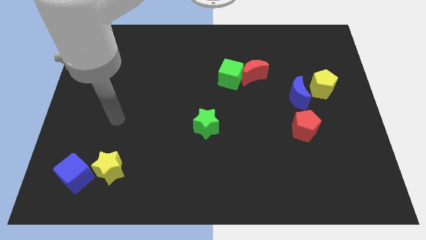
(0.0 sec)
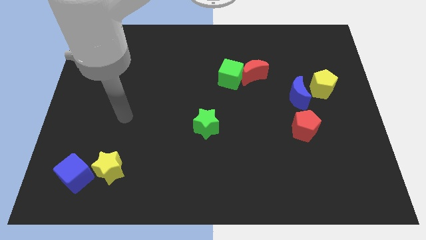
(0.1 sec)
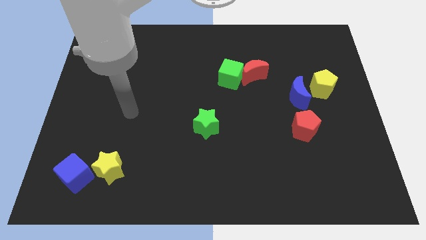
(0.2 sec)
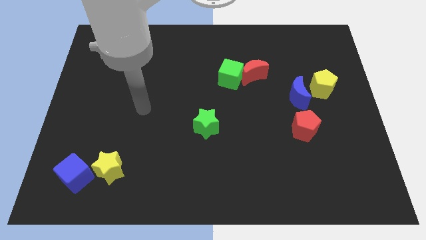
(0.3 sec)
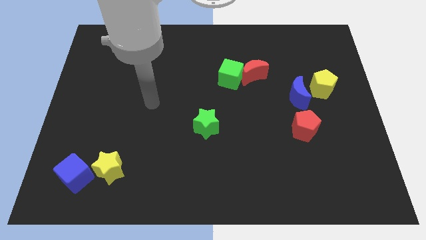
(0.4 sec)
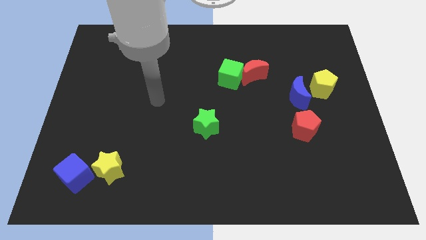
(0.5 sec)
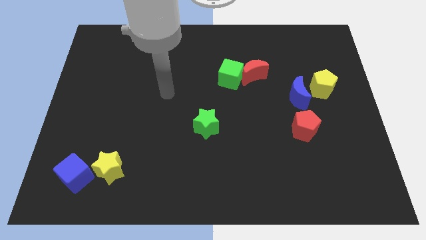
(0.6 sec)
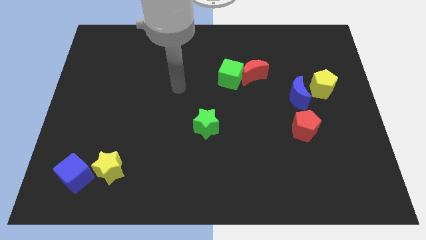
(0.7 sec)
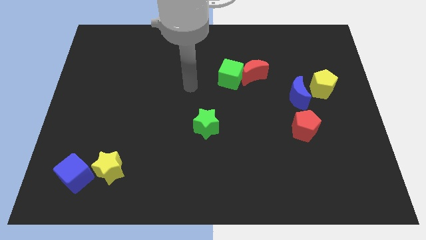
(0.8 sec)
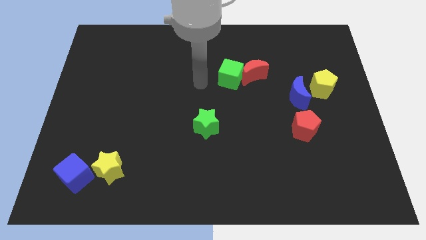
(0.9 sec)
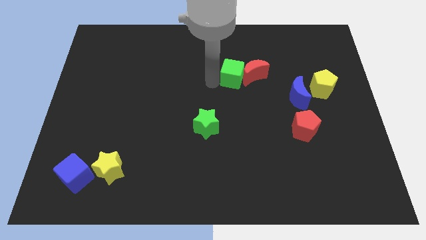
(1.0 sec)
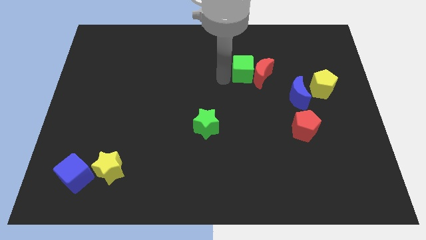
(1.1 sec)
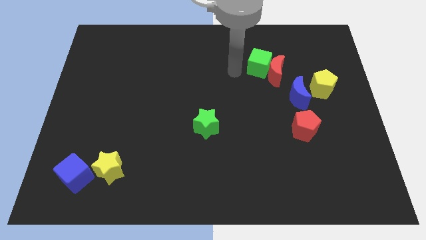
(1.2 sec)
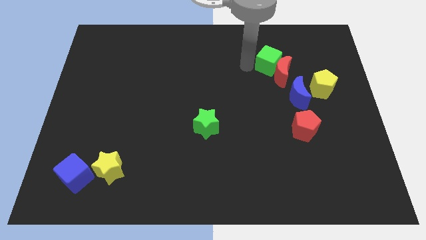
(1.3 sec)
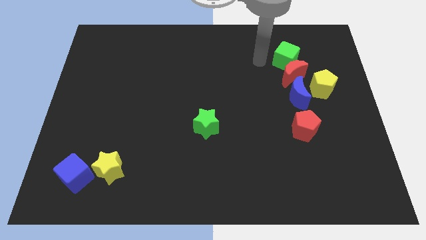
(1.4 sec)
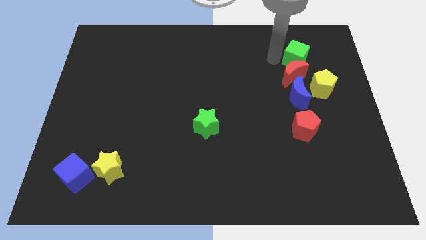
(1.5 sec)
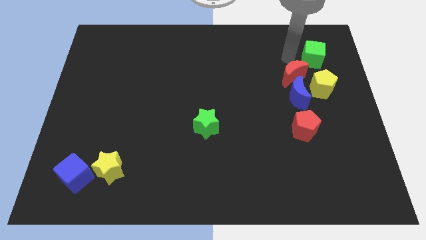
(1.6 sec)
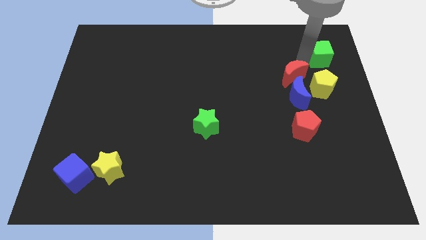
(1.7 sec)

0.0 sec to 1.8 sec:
pull the red moon apart from the green cube

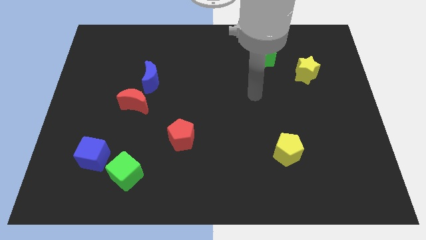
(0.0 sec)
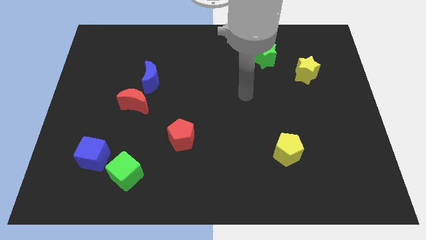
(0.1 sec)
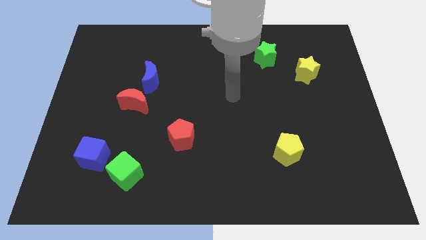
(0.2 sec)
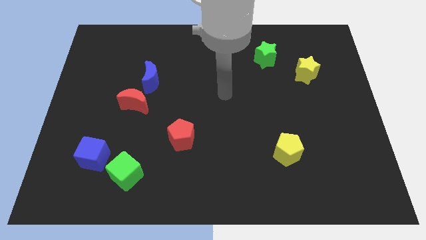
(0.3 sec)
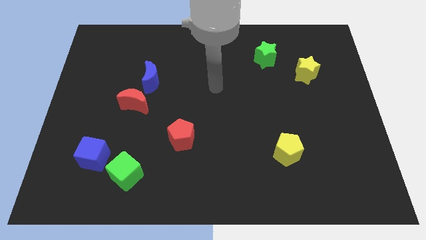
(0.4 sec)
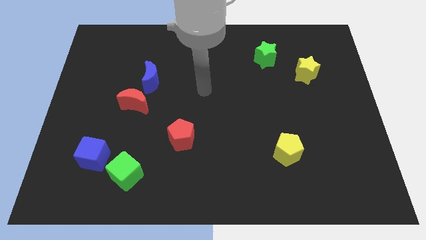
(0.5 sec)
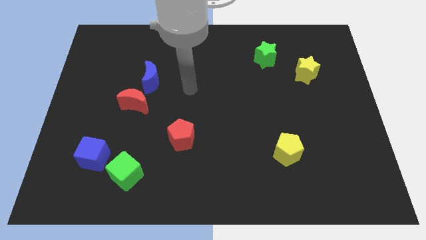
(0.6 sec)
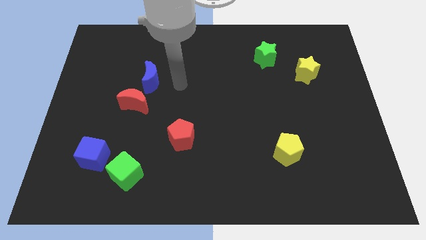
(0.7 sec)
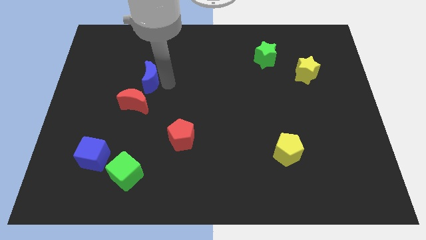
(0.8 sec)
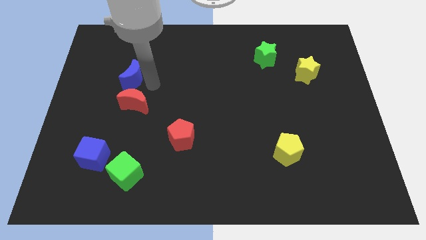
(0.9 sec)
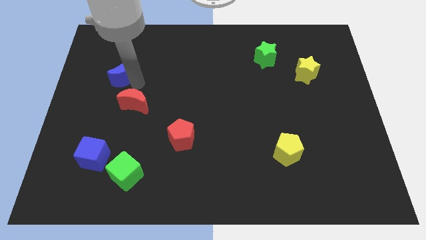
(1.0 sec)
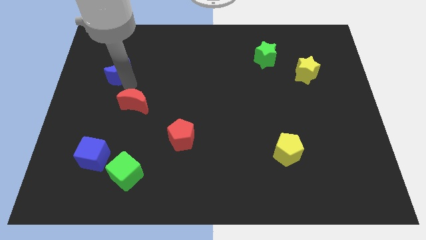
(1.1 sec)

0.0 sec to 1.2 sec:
move the red moon away from the blue moon

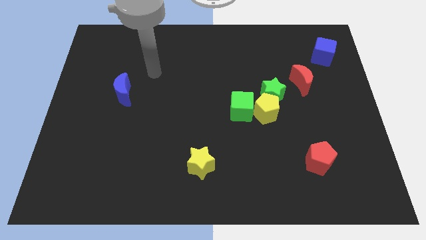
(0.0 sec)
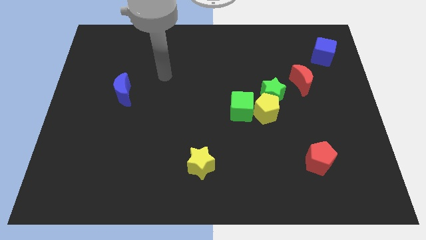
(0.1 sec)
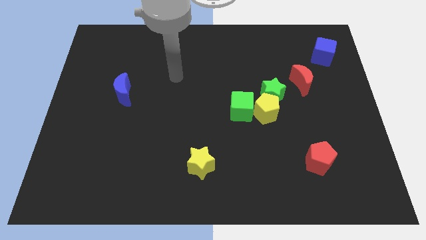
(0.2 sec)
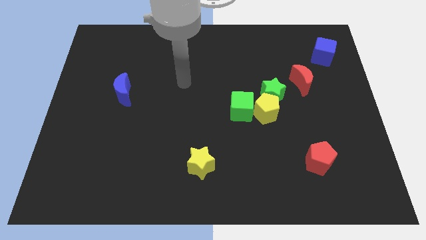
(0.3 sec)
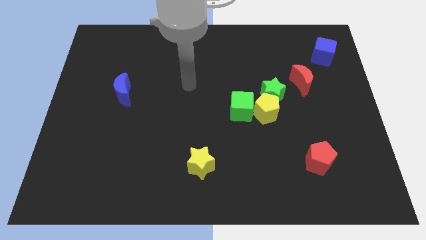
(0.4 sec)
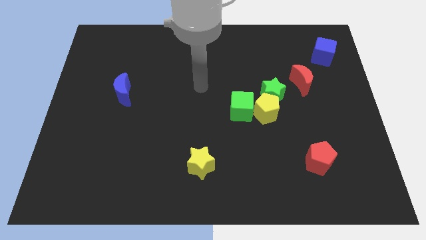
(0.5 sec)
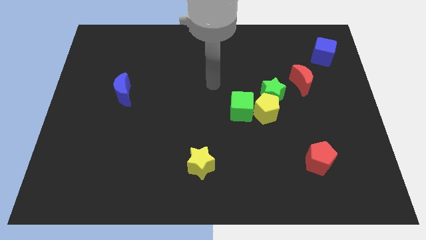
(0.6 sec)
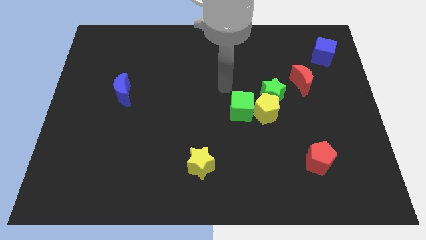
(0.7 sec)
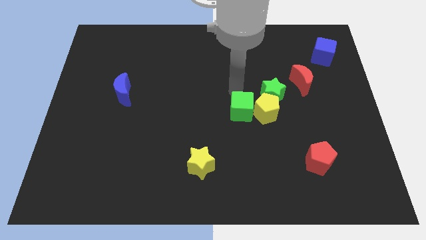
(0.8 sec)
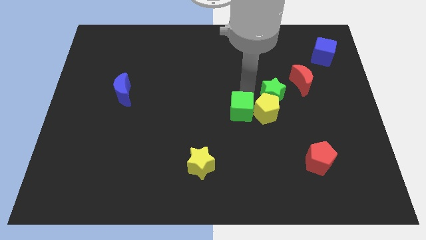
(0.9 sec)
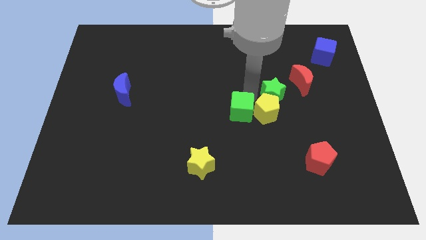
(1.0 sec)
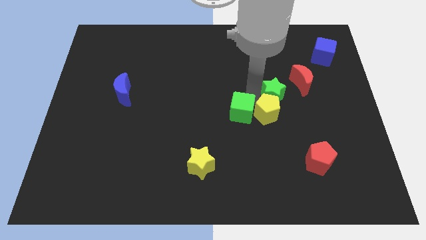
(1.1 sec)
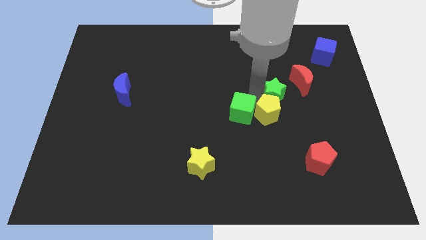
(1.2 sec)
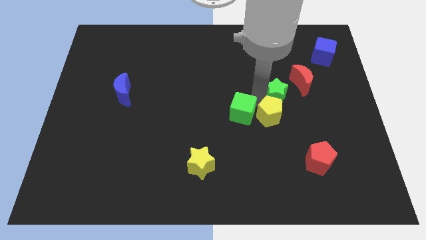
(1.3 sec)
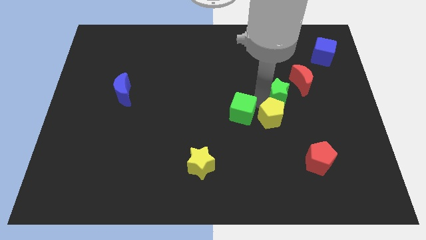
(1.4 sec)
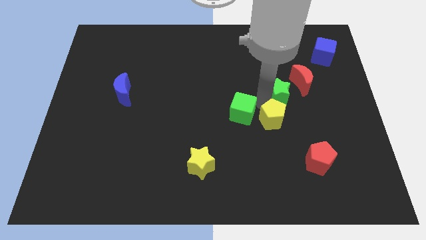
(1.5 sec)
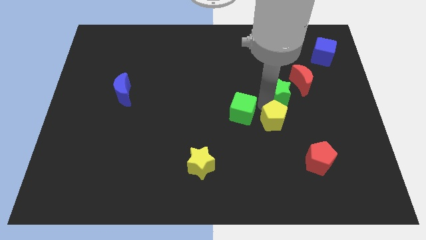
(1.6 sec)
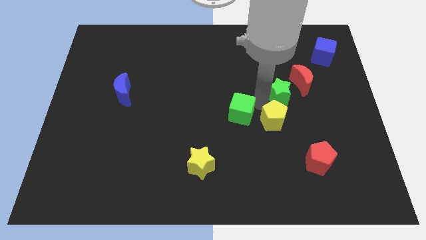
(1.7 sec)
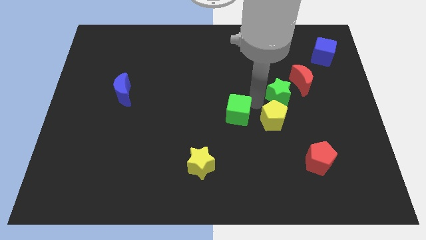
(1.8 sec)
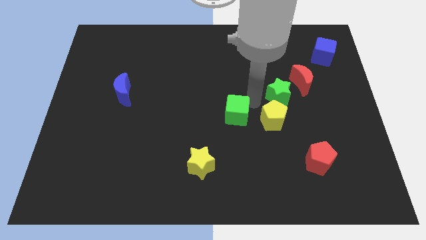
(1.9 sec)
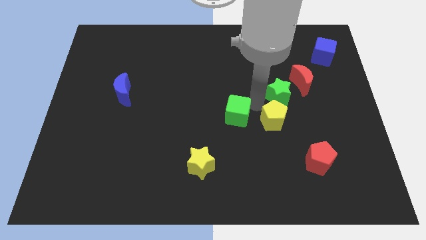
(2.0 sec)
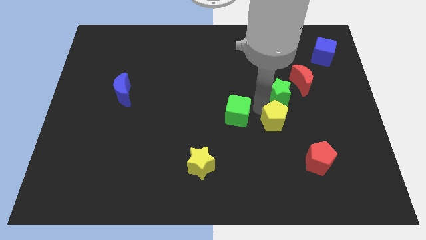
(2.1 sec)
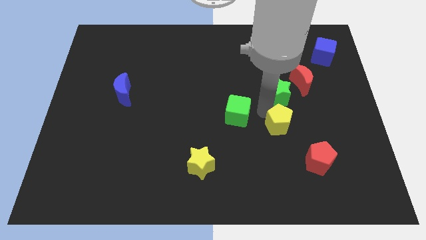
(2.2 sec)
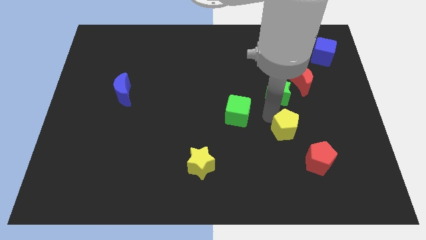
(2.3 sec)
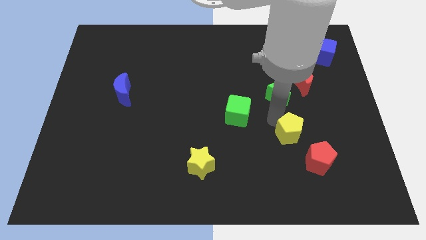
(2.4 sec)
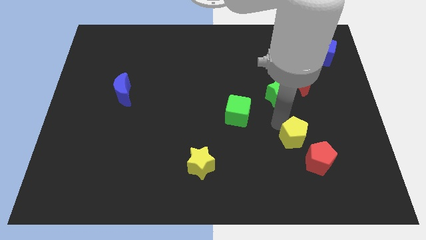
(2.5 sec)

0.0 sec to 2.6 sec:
pull the yellow pentagon apart from the green star and green cube

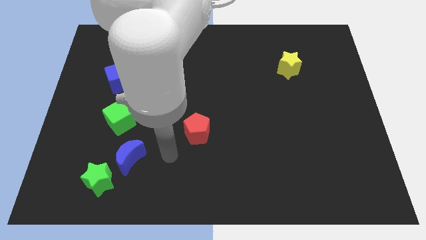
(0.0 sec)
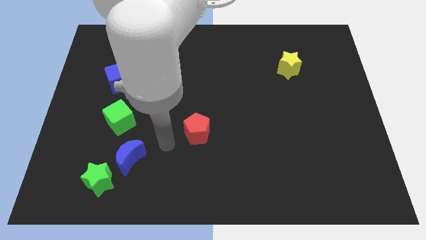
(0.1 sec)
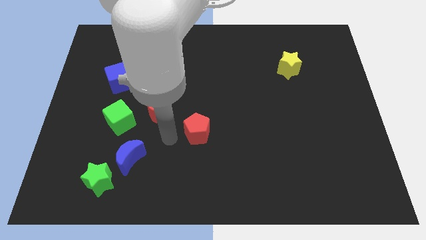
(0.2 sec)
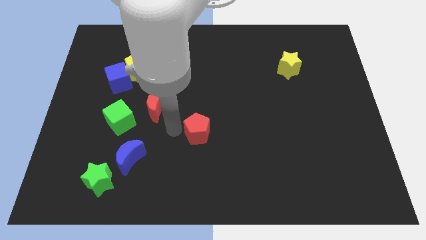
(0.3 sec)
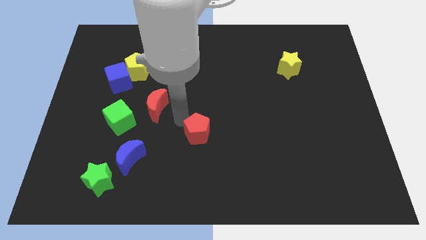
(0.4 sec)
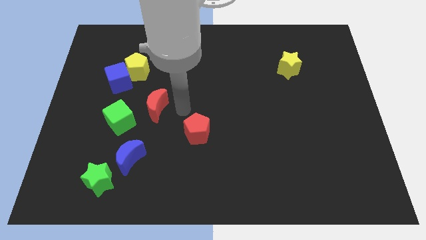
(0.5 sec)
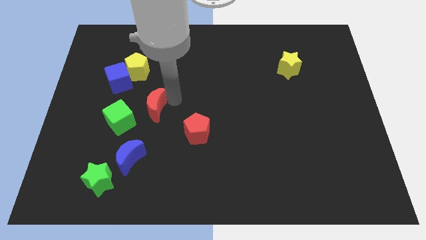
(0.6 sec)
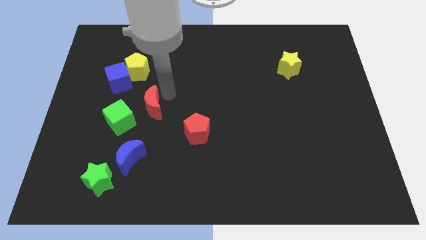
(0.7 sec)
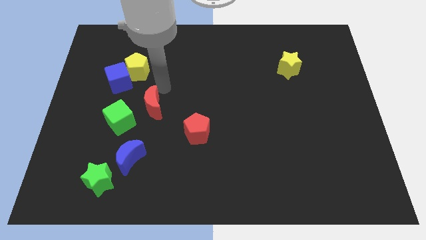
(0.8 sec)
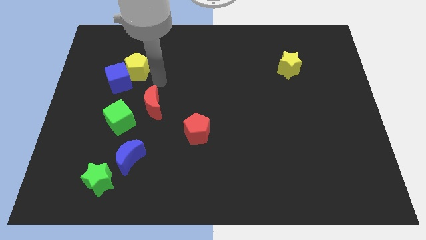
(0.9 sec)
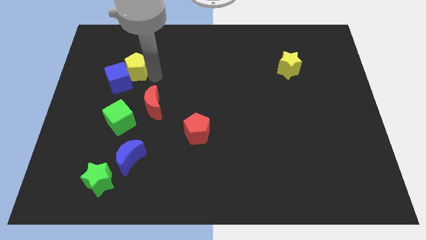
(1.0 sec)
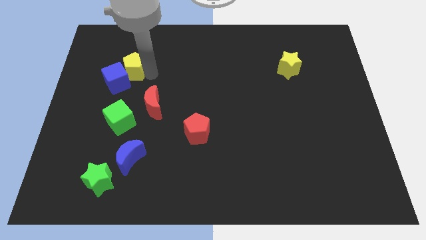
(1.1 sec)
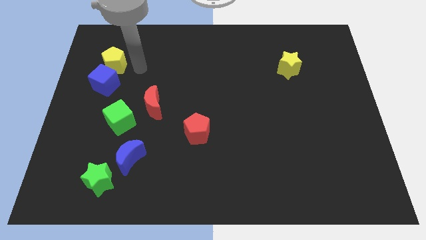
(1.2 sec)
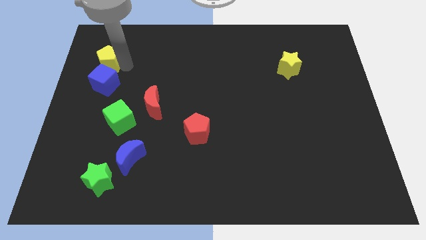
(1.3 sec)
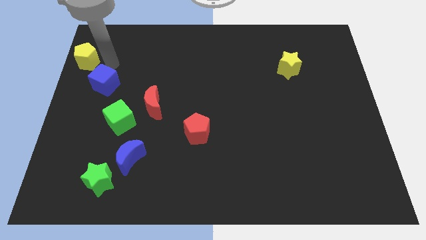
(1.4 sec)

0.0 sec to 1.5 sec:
separate the blue cube from the yellow pentagon

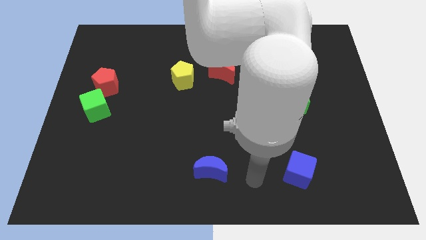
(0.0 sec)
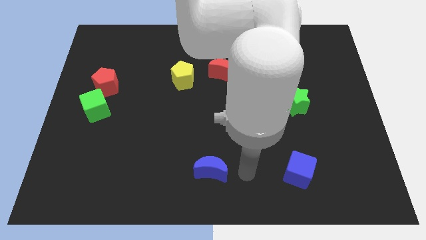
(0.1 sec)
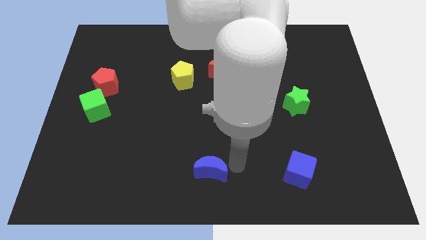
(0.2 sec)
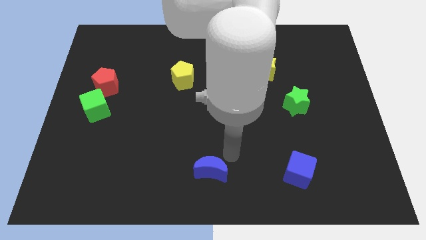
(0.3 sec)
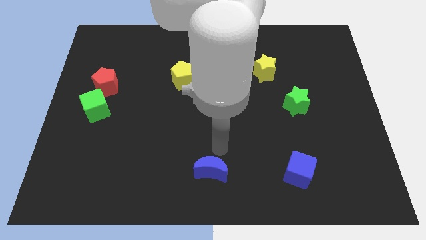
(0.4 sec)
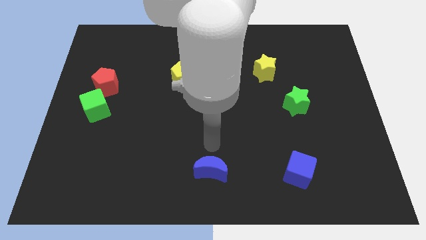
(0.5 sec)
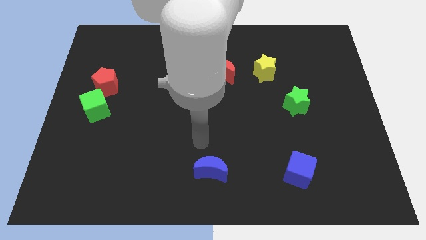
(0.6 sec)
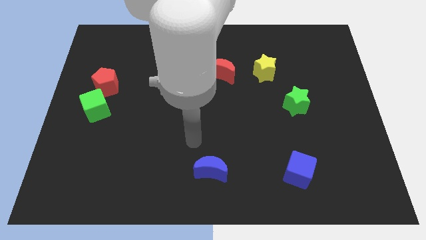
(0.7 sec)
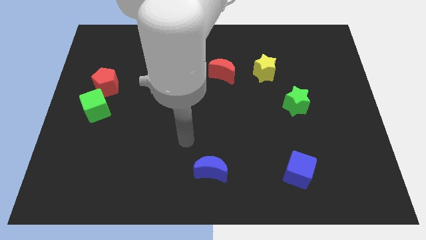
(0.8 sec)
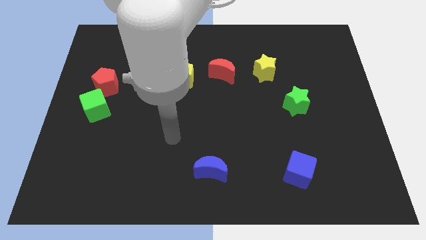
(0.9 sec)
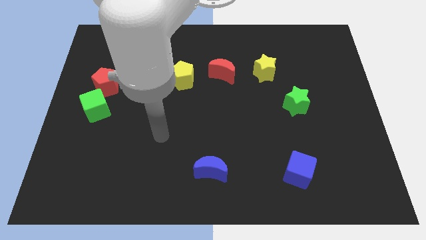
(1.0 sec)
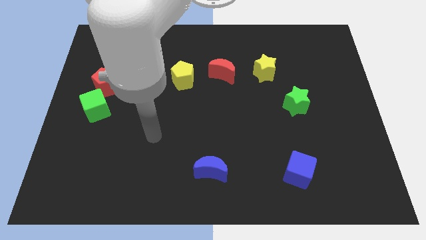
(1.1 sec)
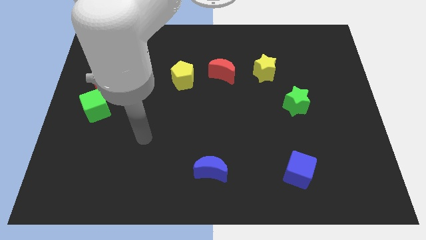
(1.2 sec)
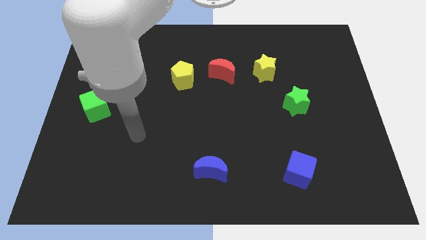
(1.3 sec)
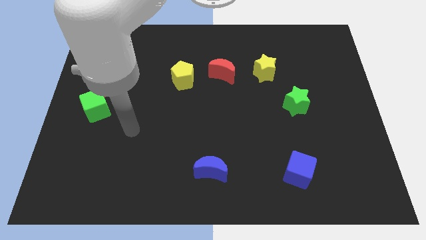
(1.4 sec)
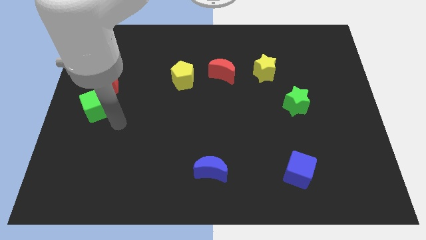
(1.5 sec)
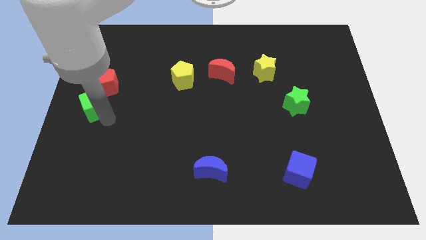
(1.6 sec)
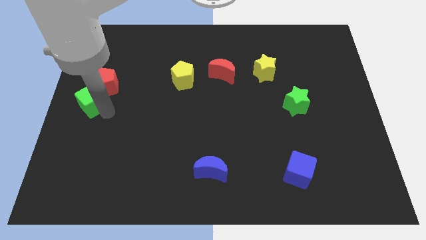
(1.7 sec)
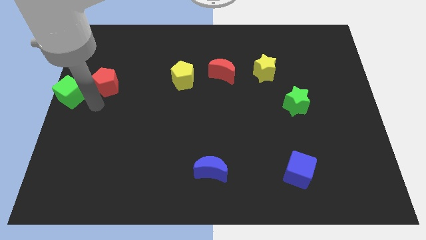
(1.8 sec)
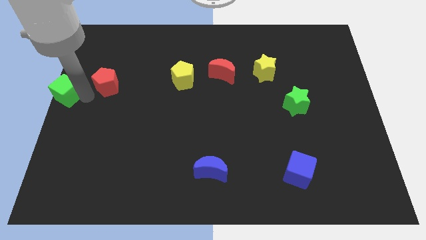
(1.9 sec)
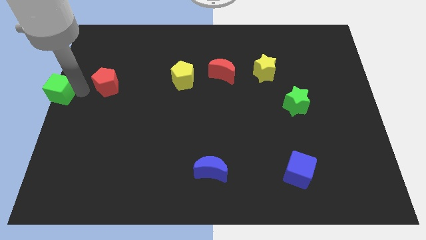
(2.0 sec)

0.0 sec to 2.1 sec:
move the red pentagon away from the green cube

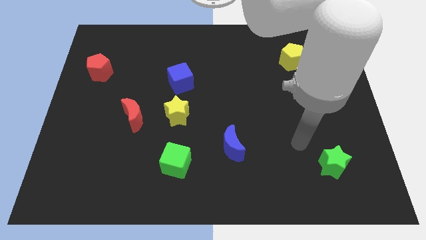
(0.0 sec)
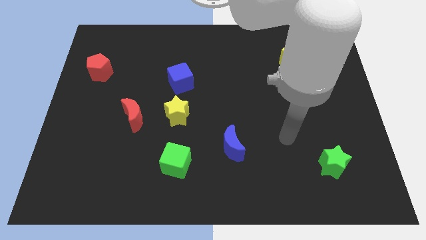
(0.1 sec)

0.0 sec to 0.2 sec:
move the red moon away from the yellow star
